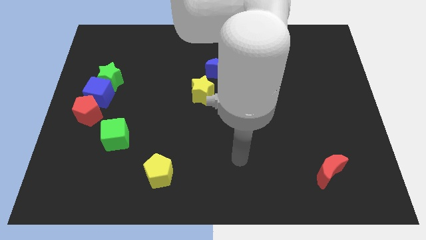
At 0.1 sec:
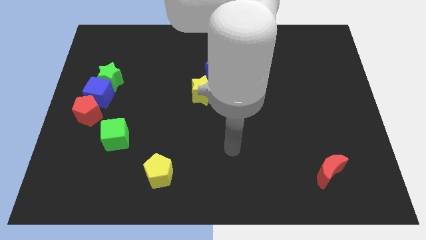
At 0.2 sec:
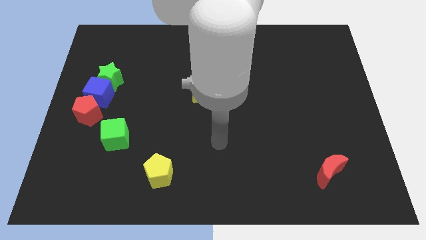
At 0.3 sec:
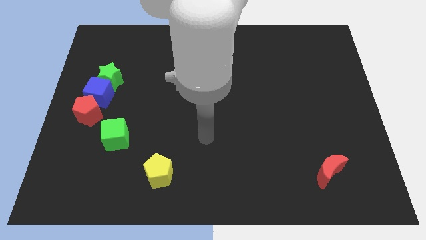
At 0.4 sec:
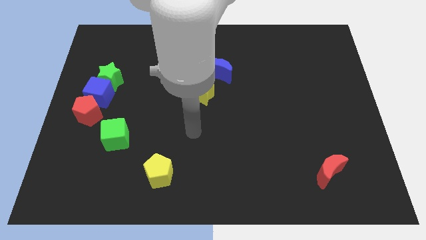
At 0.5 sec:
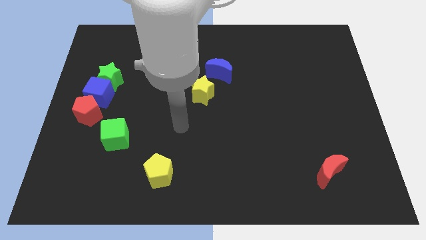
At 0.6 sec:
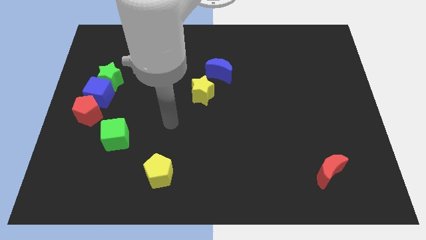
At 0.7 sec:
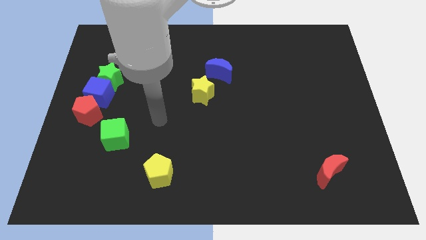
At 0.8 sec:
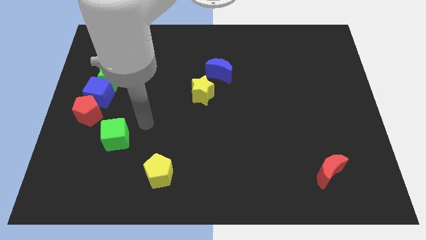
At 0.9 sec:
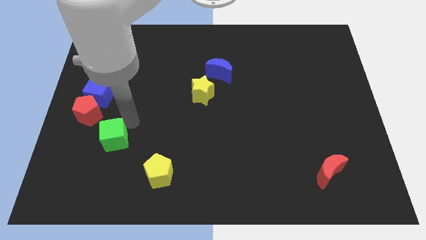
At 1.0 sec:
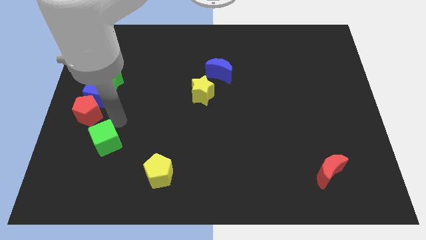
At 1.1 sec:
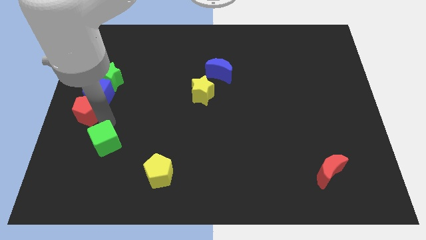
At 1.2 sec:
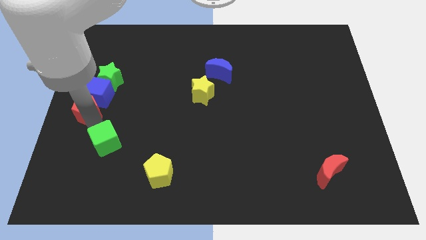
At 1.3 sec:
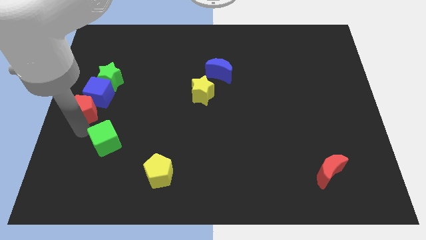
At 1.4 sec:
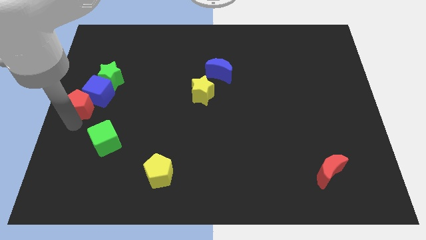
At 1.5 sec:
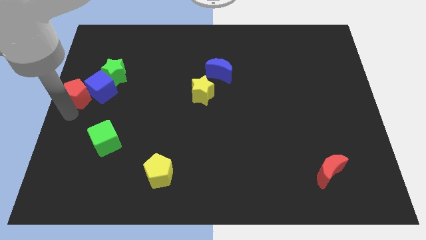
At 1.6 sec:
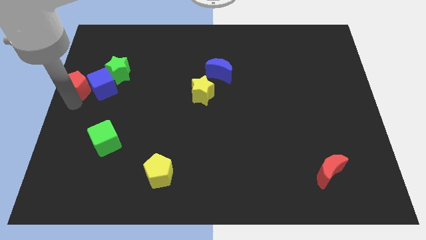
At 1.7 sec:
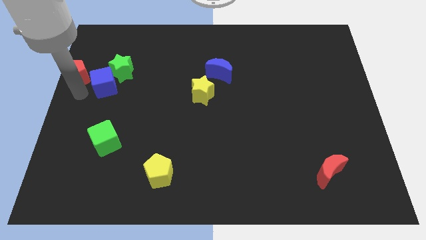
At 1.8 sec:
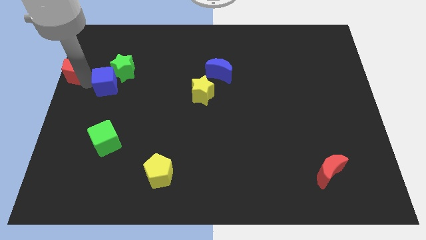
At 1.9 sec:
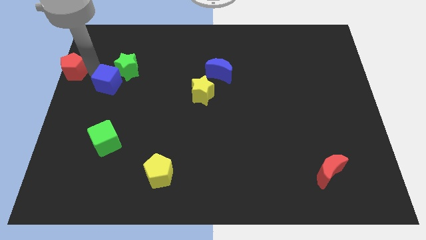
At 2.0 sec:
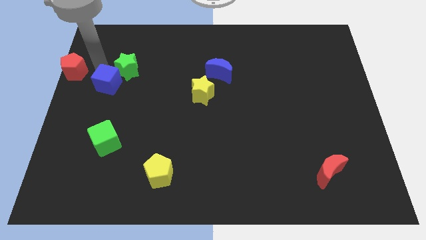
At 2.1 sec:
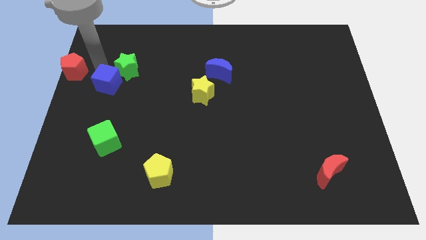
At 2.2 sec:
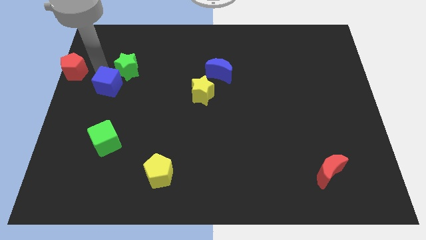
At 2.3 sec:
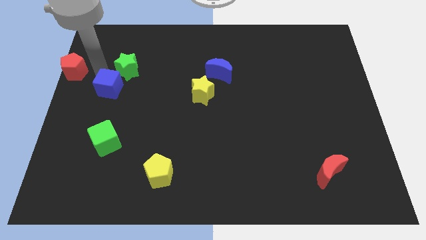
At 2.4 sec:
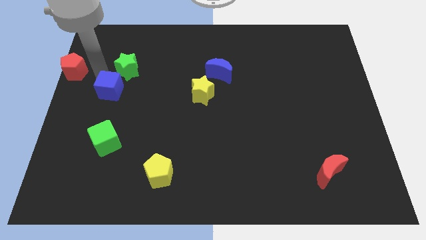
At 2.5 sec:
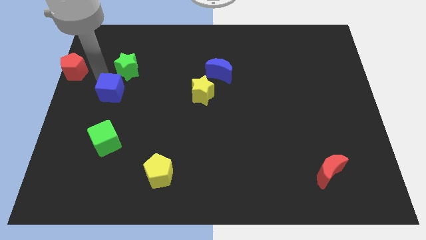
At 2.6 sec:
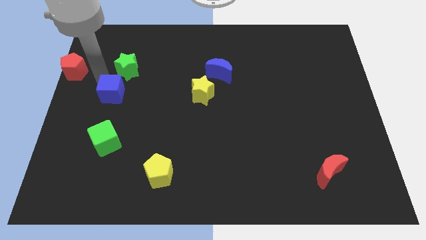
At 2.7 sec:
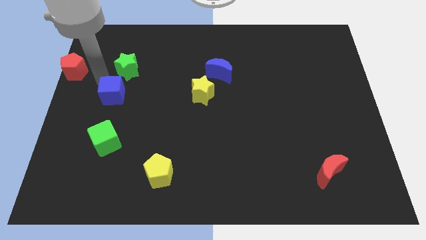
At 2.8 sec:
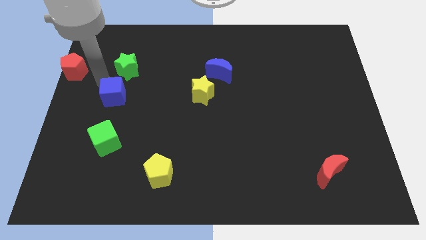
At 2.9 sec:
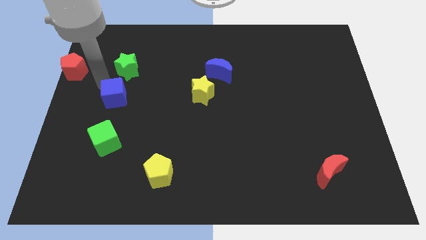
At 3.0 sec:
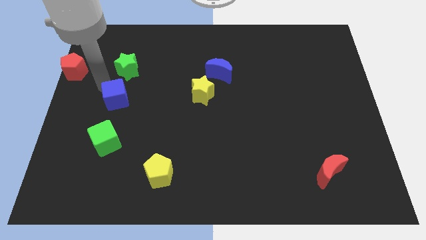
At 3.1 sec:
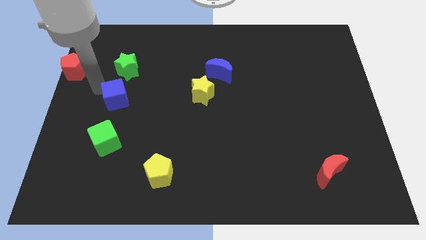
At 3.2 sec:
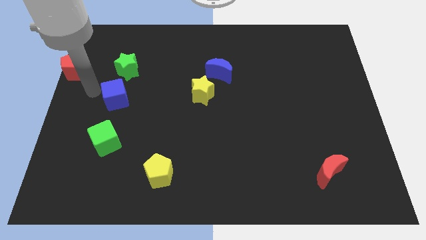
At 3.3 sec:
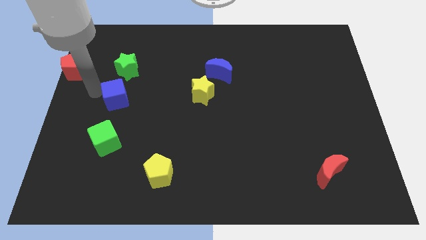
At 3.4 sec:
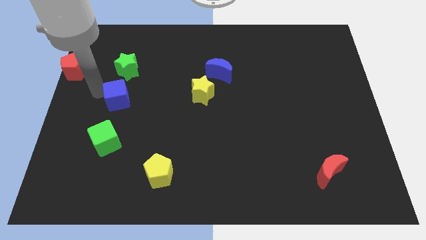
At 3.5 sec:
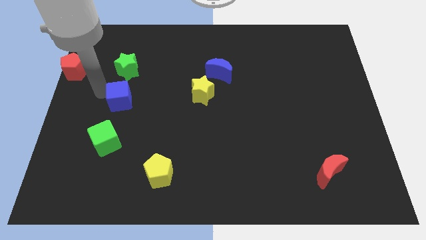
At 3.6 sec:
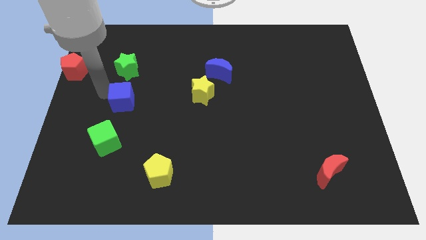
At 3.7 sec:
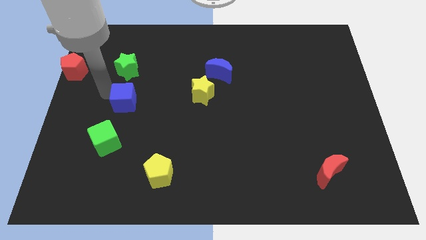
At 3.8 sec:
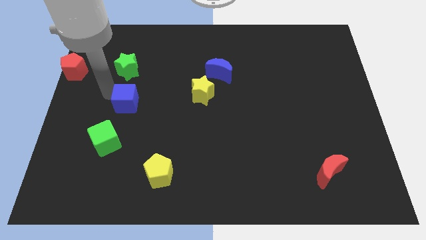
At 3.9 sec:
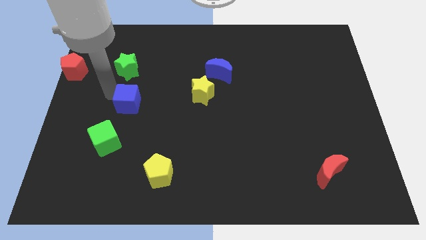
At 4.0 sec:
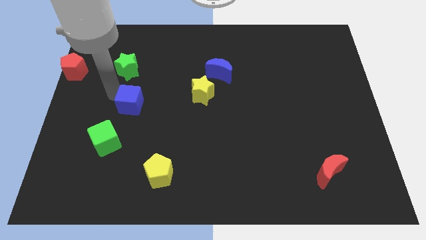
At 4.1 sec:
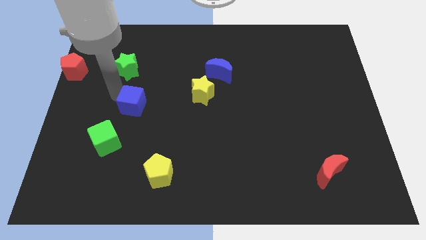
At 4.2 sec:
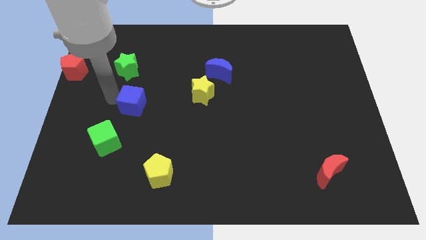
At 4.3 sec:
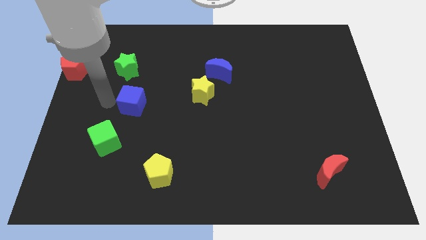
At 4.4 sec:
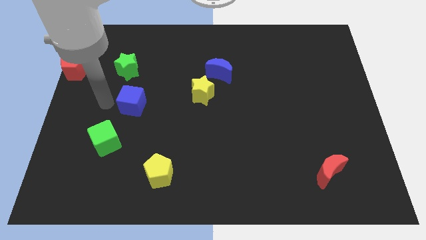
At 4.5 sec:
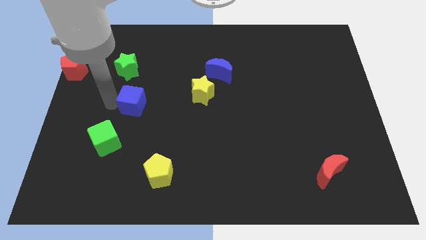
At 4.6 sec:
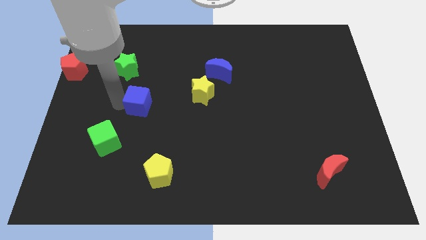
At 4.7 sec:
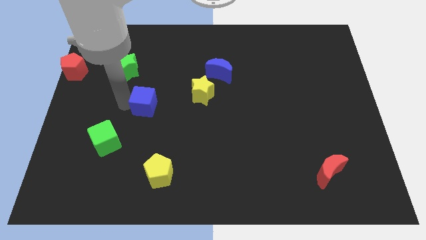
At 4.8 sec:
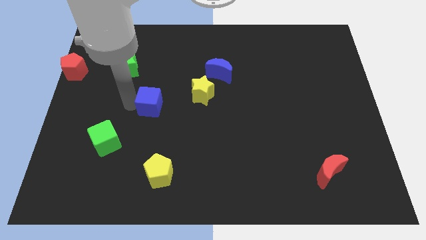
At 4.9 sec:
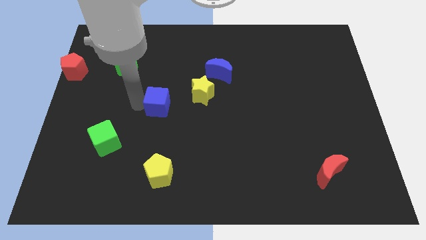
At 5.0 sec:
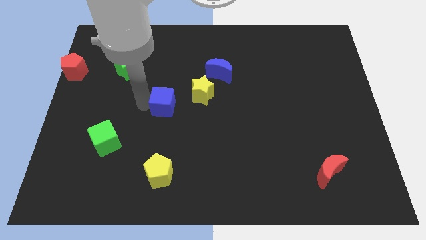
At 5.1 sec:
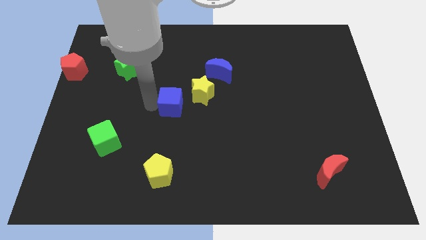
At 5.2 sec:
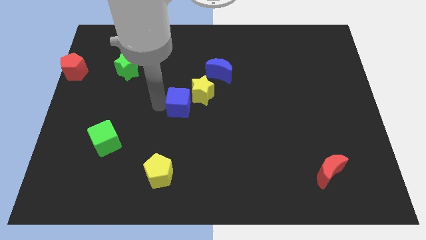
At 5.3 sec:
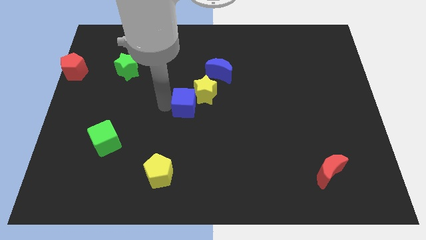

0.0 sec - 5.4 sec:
push the blue cube to the right

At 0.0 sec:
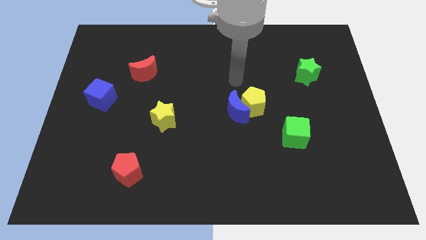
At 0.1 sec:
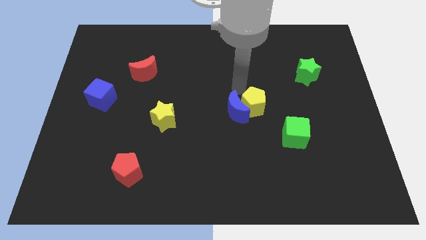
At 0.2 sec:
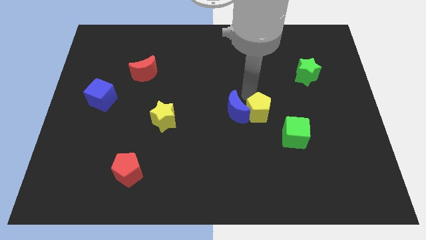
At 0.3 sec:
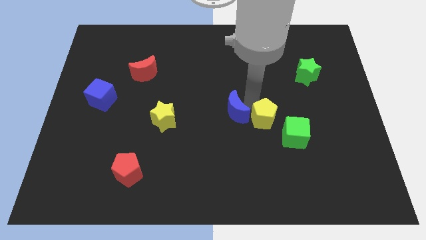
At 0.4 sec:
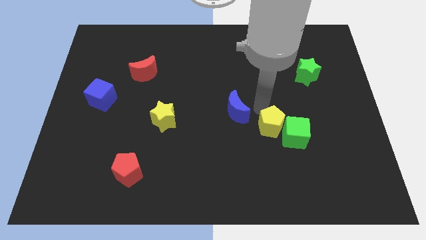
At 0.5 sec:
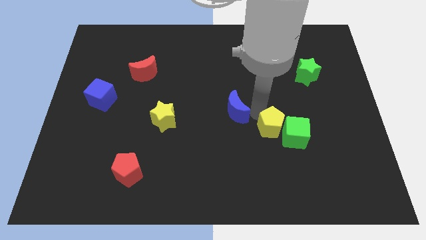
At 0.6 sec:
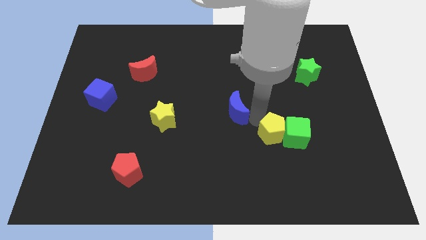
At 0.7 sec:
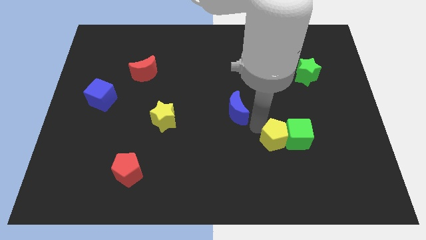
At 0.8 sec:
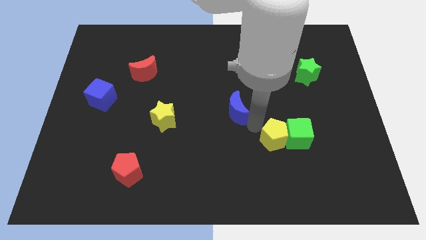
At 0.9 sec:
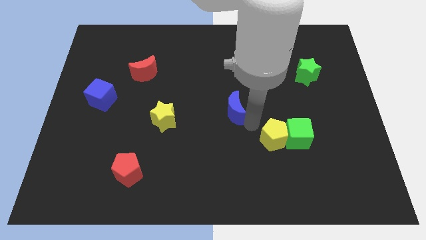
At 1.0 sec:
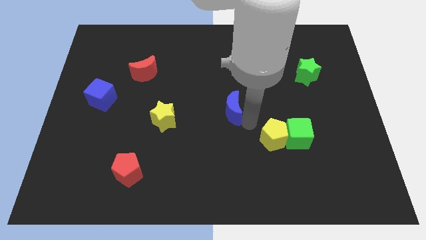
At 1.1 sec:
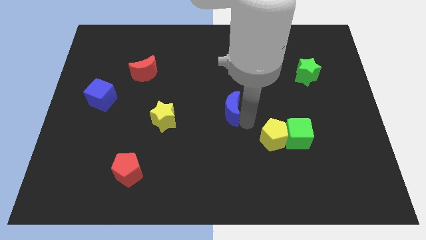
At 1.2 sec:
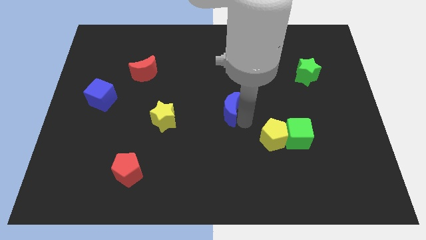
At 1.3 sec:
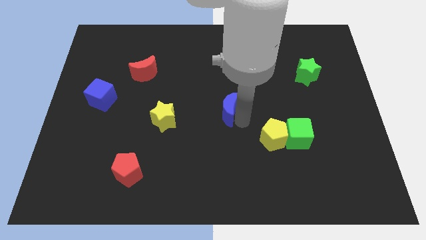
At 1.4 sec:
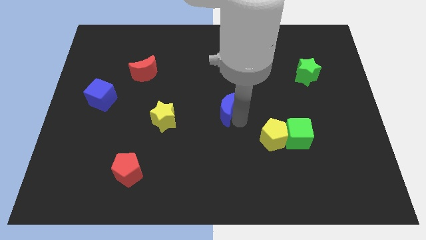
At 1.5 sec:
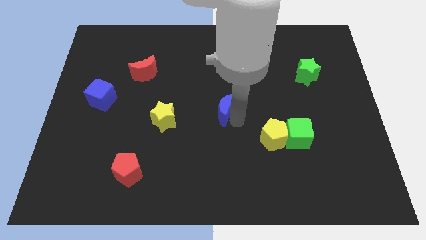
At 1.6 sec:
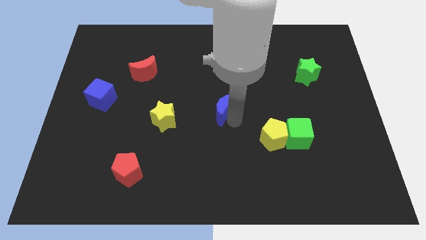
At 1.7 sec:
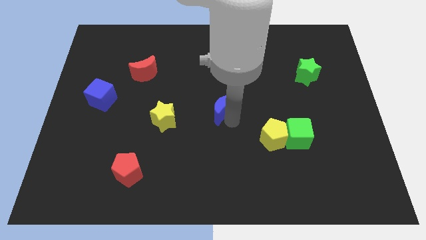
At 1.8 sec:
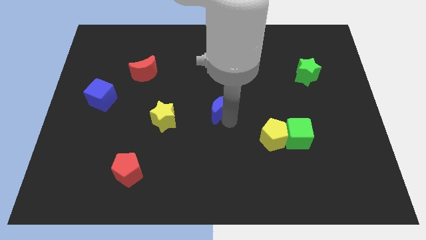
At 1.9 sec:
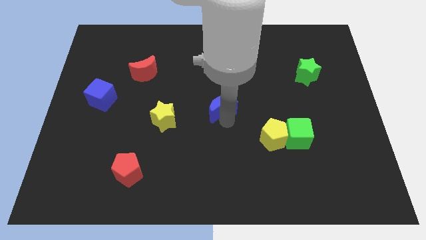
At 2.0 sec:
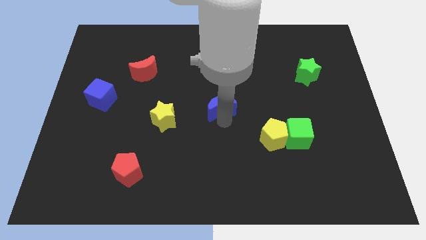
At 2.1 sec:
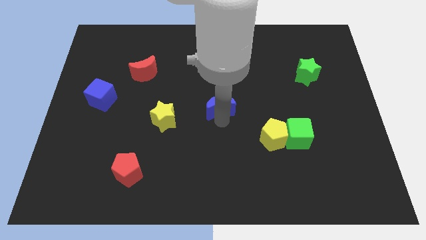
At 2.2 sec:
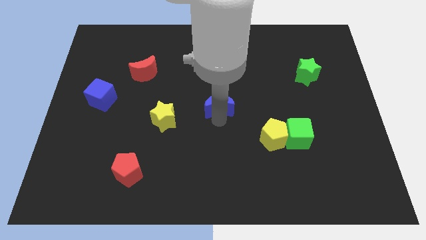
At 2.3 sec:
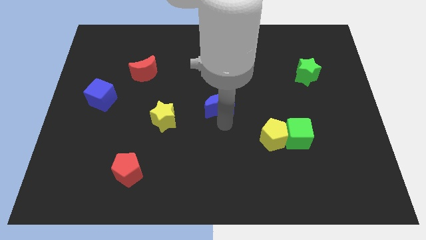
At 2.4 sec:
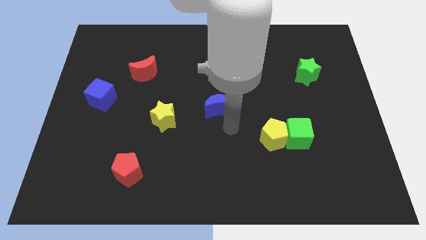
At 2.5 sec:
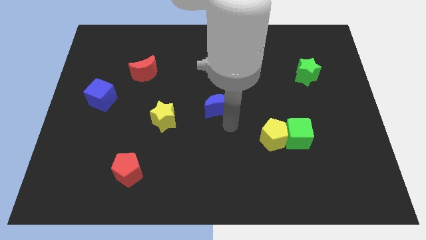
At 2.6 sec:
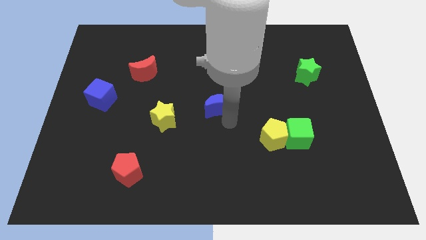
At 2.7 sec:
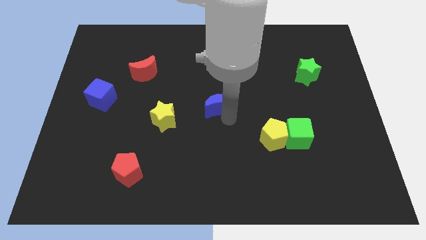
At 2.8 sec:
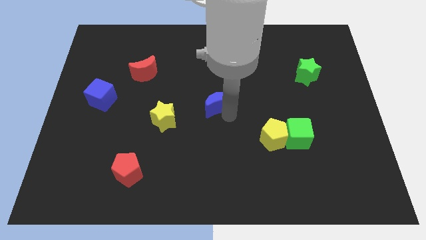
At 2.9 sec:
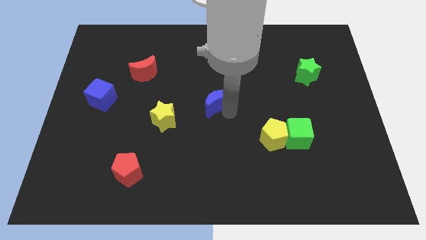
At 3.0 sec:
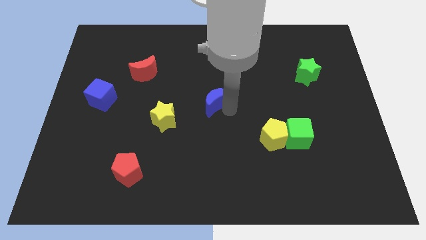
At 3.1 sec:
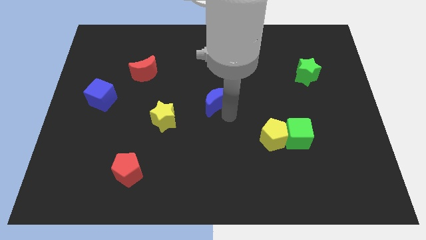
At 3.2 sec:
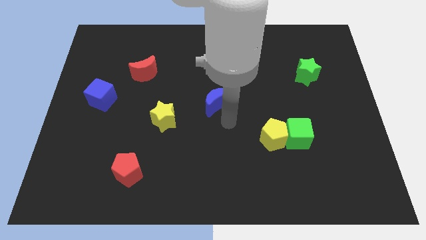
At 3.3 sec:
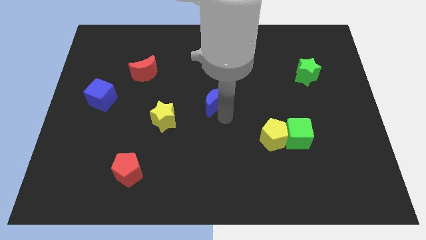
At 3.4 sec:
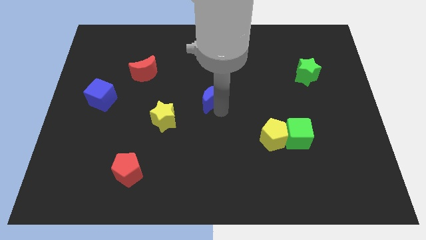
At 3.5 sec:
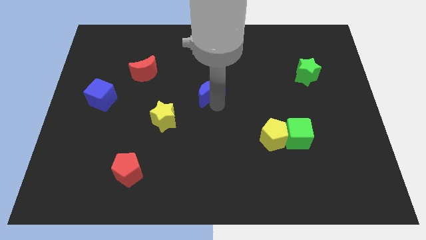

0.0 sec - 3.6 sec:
slide the blue moon up and then to the left somewhat
